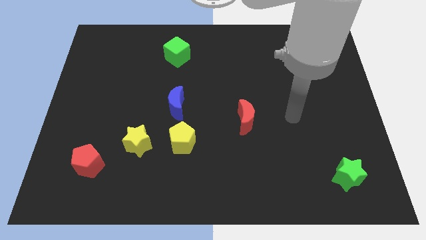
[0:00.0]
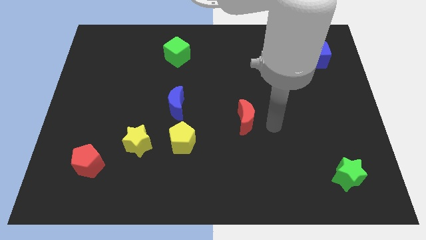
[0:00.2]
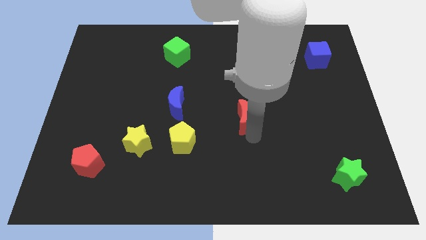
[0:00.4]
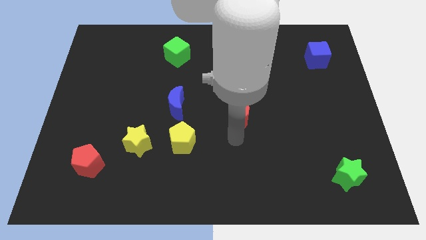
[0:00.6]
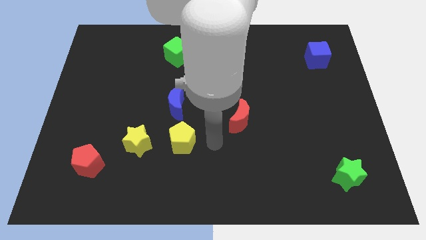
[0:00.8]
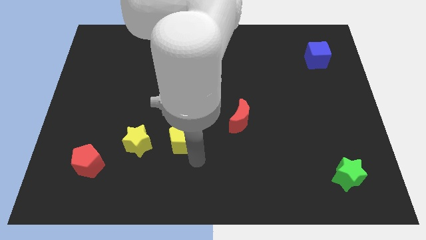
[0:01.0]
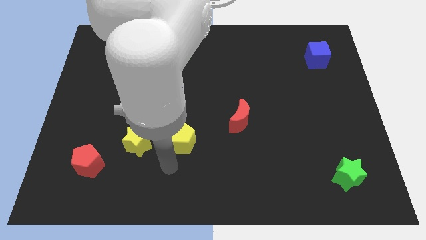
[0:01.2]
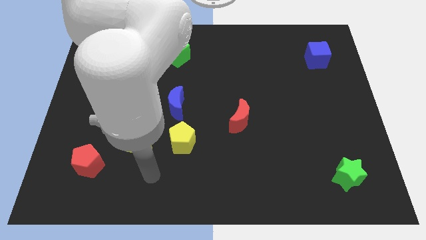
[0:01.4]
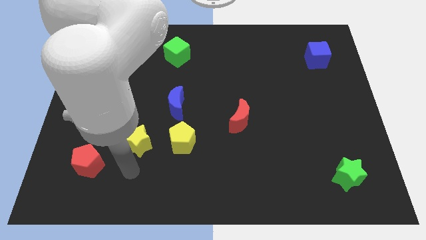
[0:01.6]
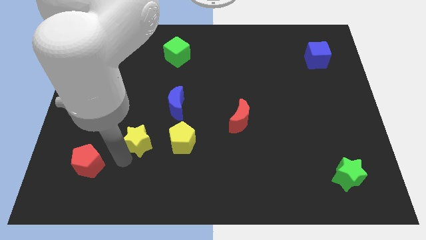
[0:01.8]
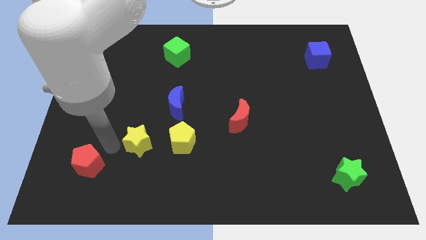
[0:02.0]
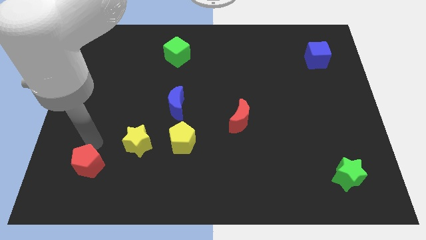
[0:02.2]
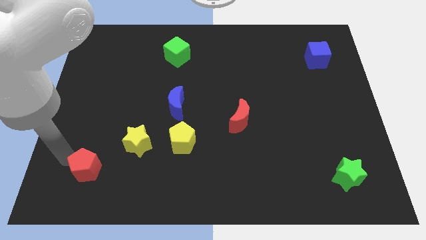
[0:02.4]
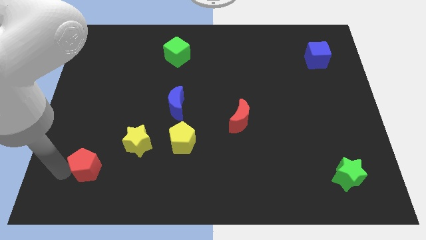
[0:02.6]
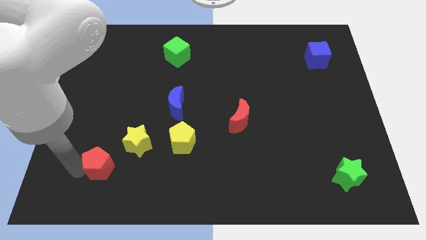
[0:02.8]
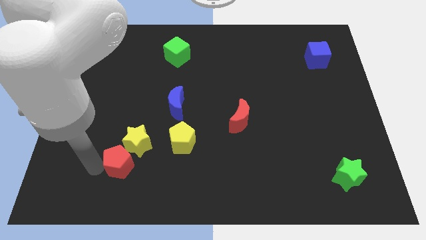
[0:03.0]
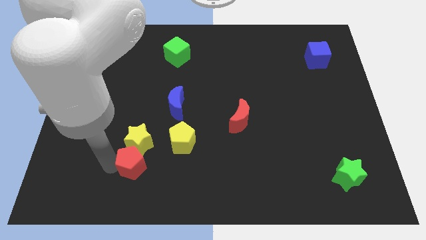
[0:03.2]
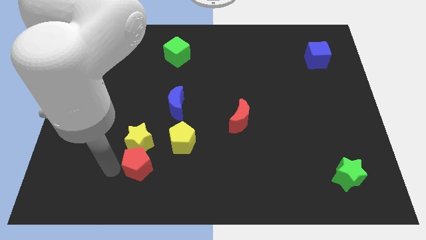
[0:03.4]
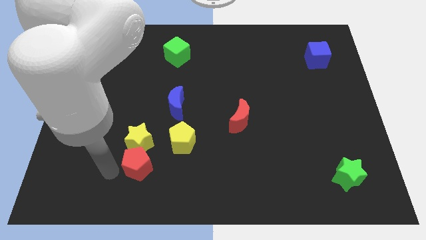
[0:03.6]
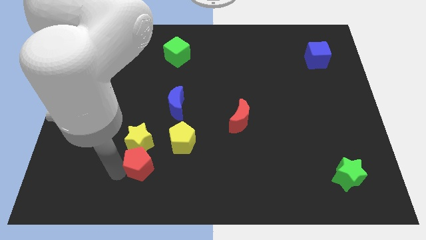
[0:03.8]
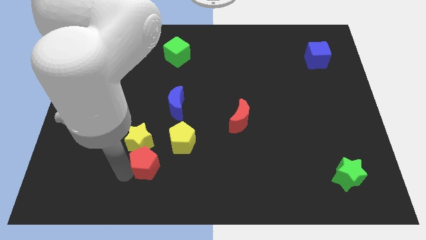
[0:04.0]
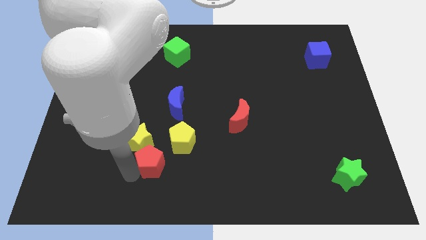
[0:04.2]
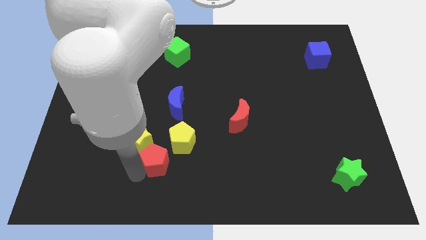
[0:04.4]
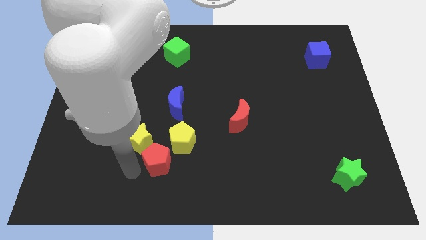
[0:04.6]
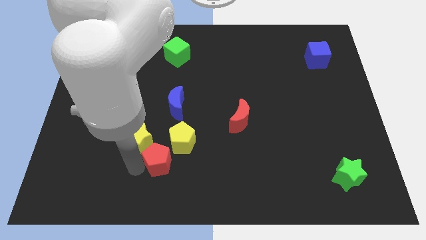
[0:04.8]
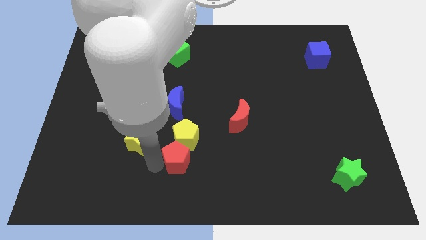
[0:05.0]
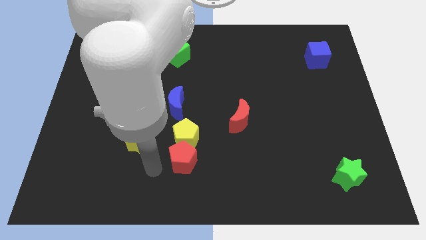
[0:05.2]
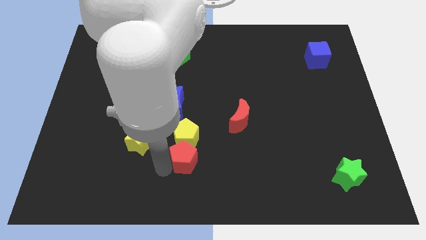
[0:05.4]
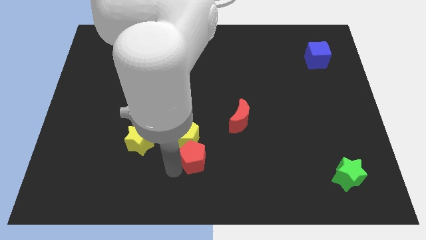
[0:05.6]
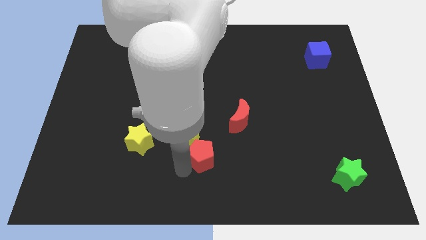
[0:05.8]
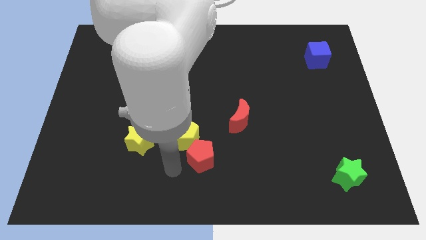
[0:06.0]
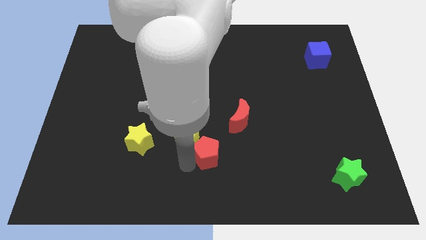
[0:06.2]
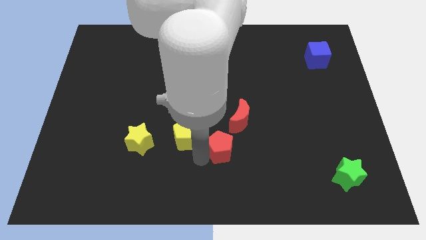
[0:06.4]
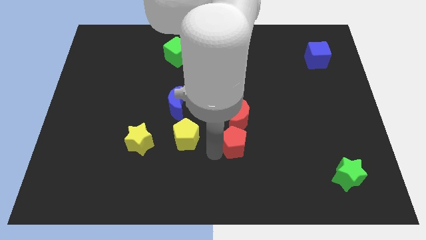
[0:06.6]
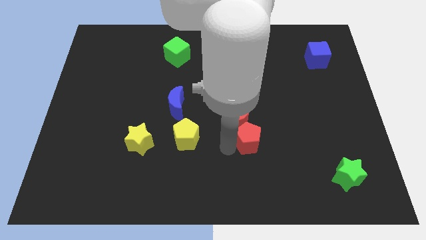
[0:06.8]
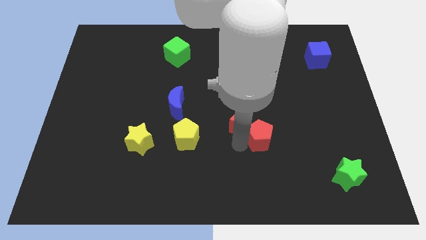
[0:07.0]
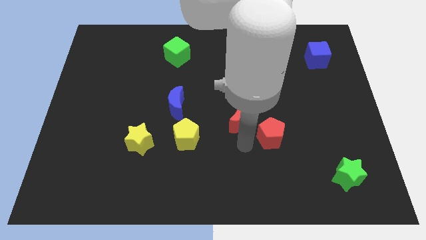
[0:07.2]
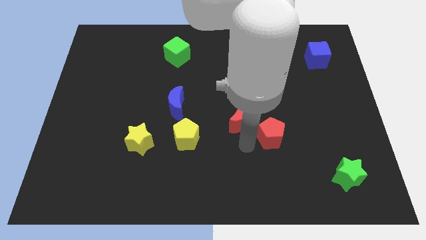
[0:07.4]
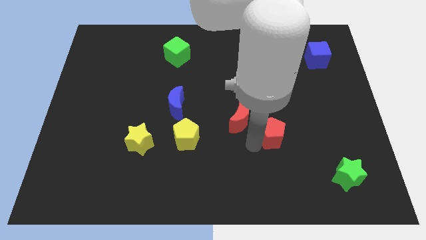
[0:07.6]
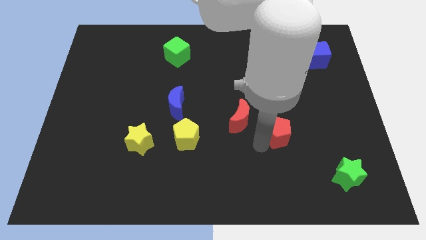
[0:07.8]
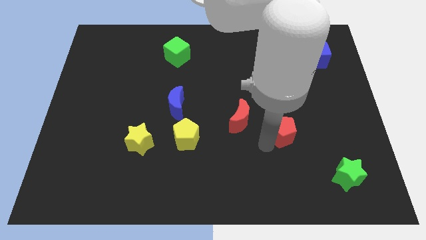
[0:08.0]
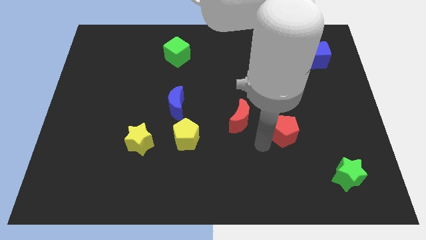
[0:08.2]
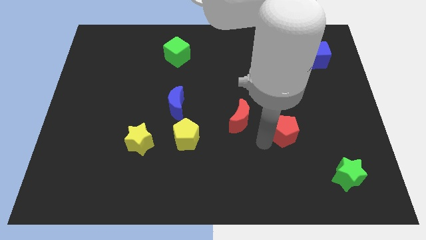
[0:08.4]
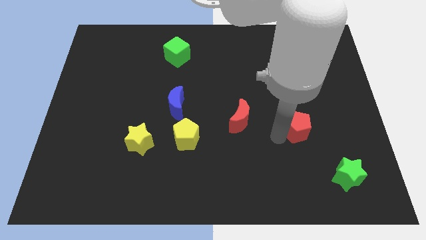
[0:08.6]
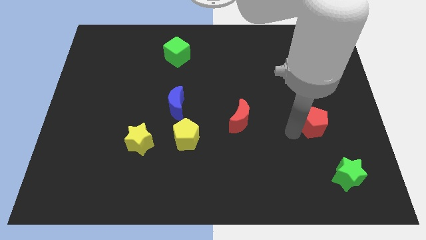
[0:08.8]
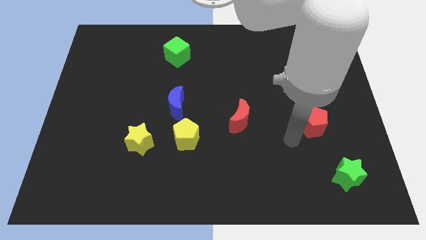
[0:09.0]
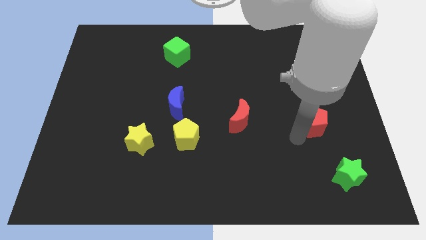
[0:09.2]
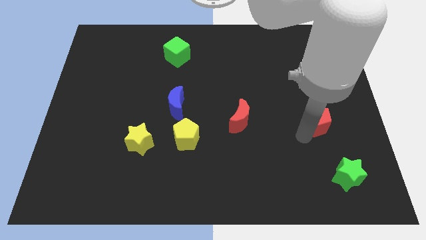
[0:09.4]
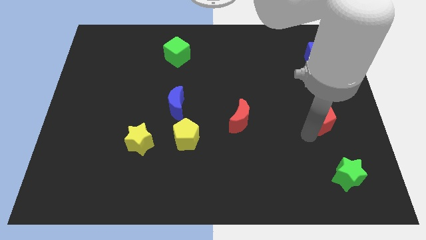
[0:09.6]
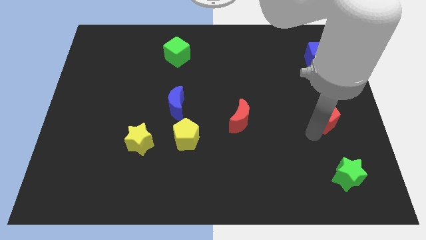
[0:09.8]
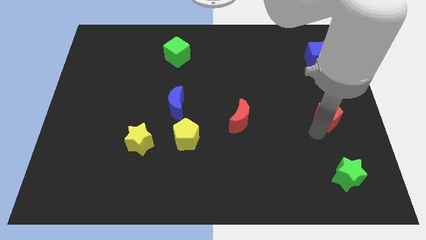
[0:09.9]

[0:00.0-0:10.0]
move the red pentagon to the center right

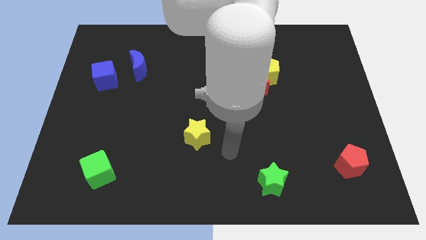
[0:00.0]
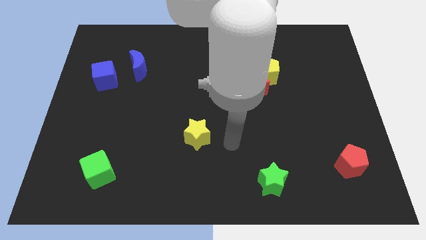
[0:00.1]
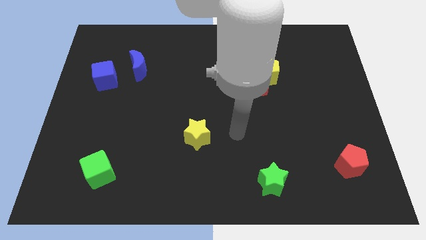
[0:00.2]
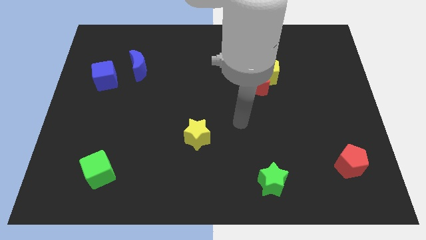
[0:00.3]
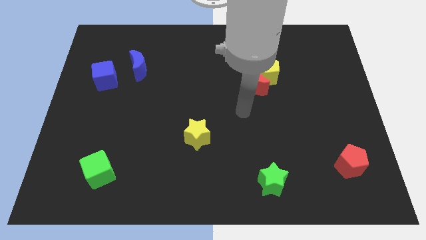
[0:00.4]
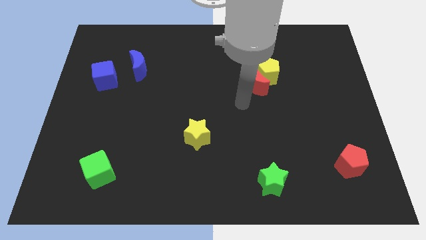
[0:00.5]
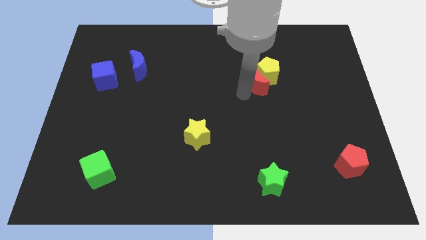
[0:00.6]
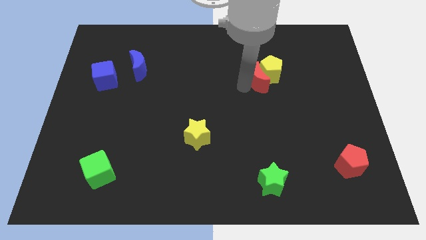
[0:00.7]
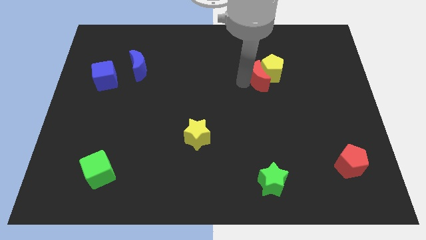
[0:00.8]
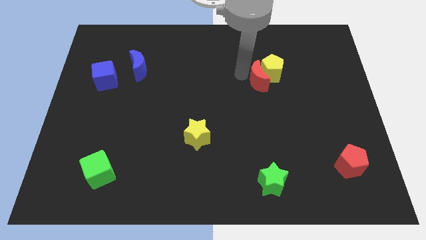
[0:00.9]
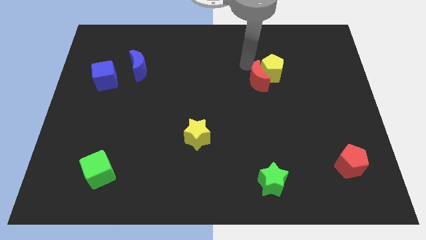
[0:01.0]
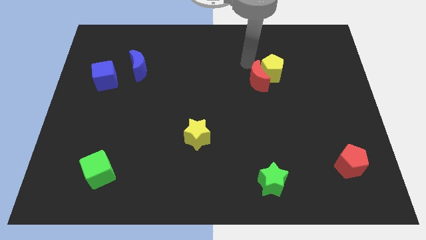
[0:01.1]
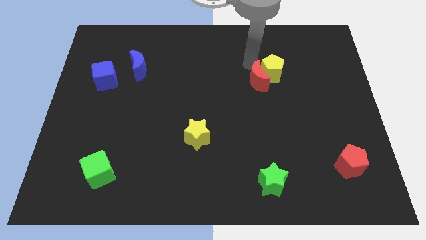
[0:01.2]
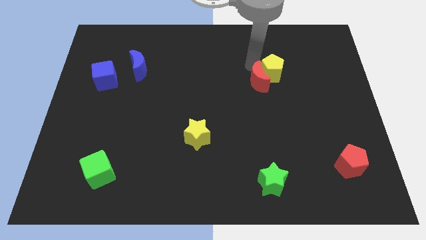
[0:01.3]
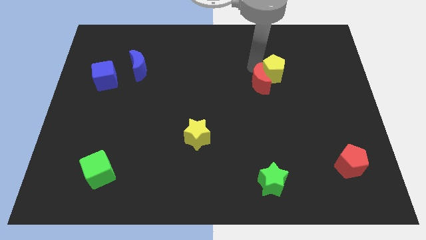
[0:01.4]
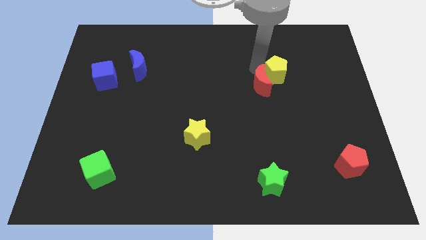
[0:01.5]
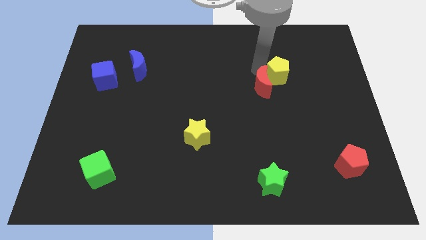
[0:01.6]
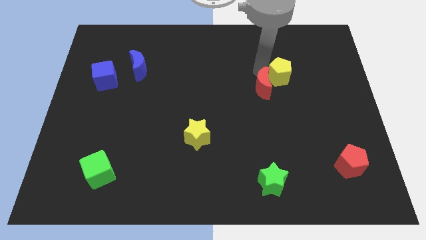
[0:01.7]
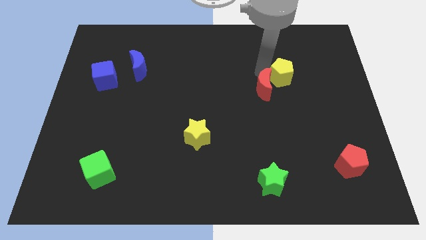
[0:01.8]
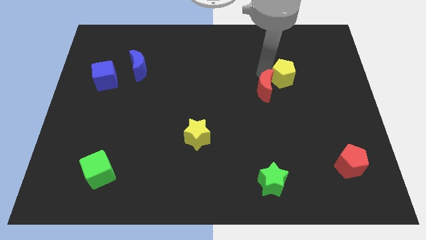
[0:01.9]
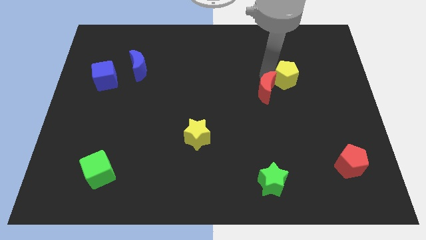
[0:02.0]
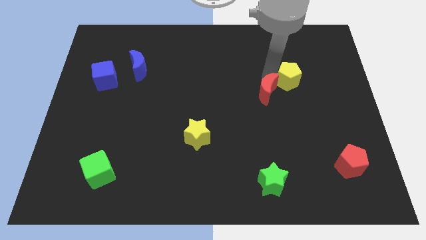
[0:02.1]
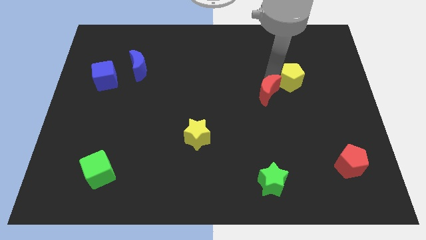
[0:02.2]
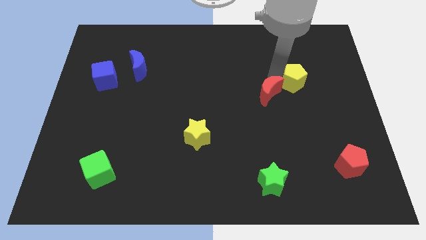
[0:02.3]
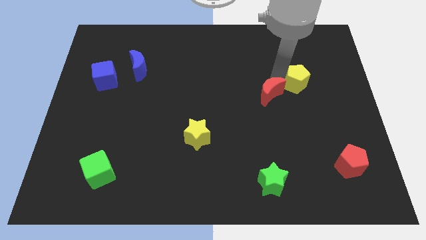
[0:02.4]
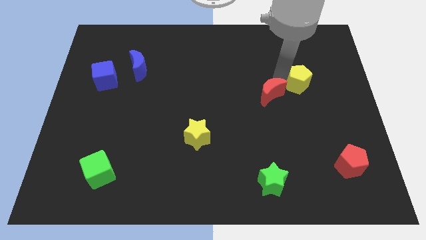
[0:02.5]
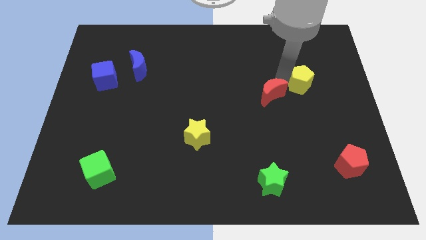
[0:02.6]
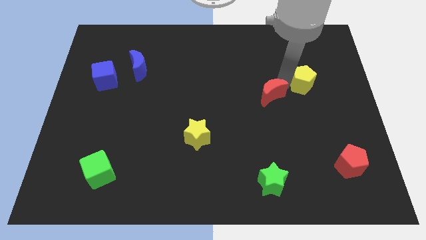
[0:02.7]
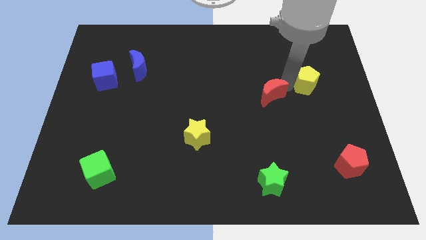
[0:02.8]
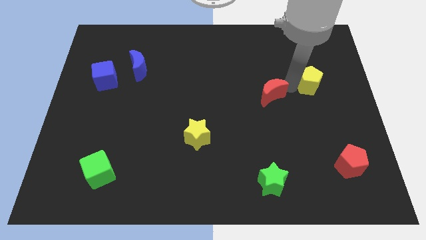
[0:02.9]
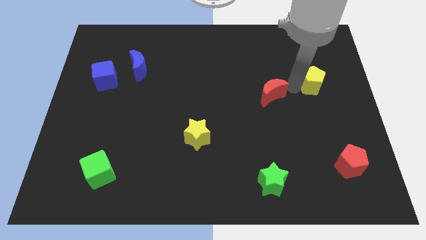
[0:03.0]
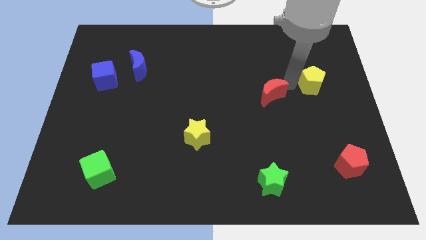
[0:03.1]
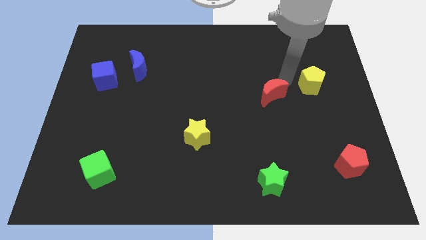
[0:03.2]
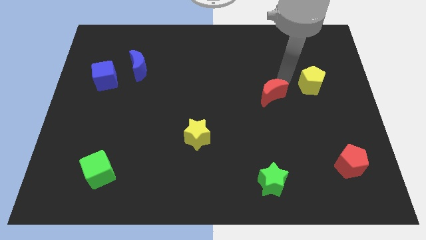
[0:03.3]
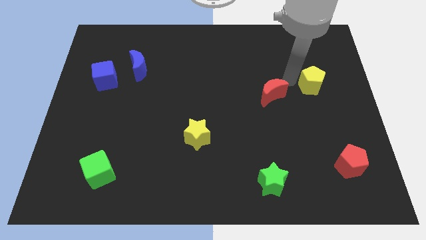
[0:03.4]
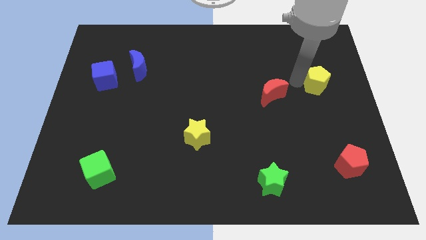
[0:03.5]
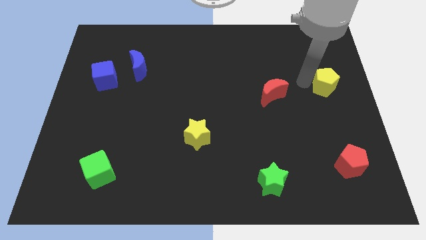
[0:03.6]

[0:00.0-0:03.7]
put the yellow pentagon to the center right
